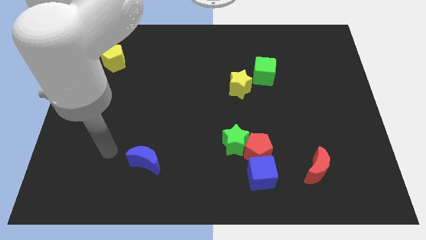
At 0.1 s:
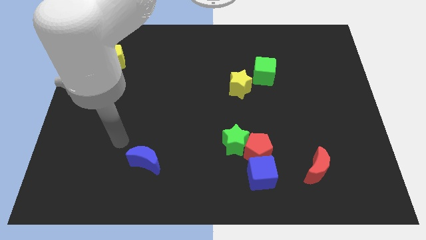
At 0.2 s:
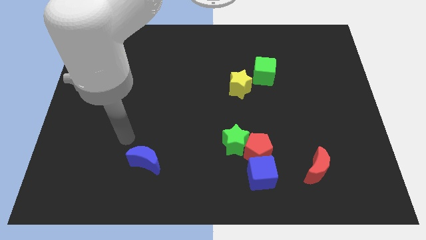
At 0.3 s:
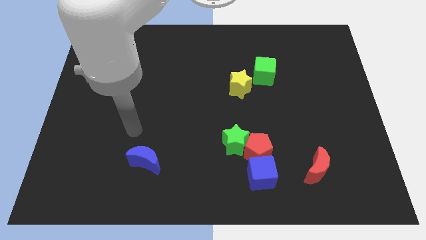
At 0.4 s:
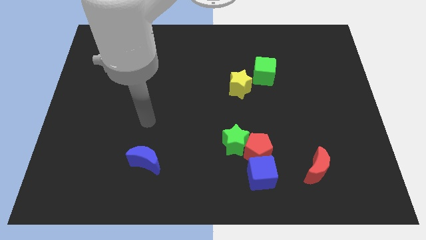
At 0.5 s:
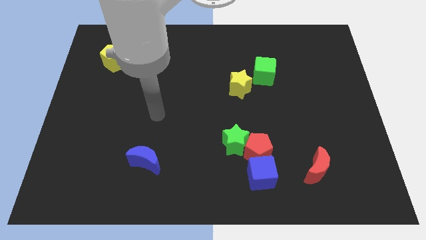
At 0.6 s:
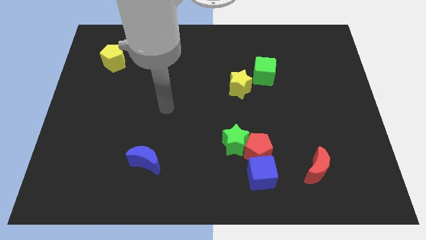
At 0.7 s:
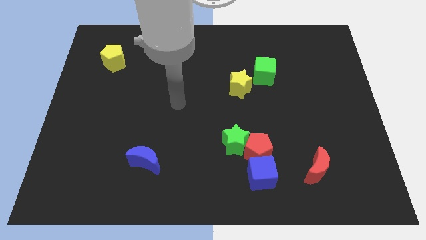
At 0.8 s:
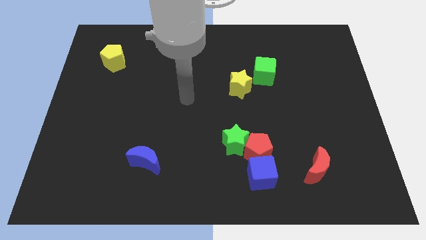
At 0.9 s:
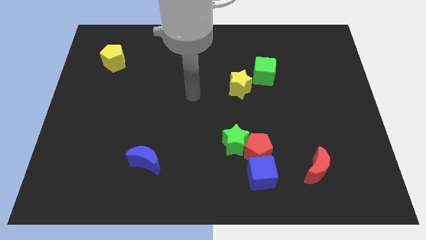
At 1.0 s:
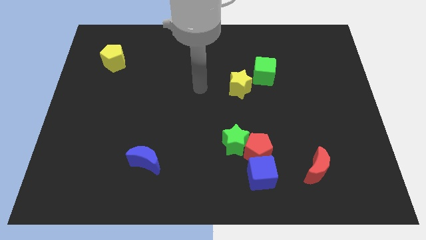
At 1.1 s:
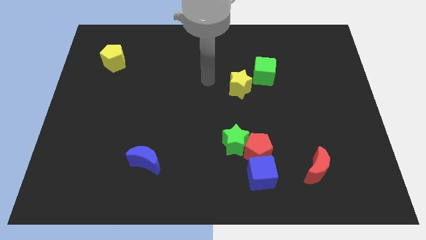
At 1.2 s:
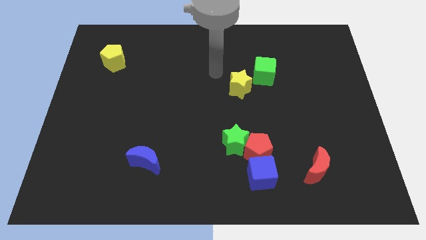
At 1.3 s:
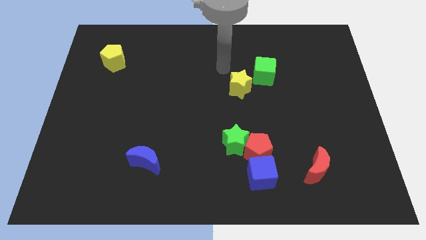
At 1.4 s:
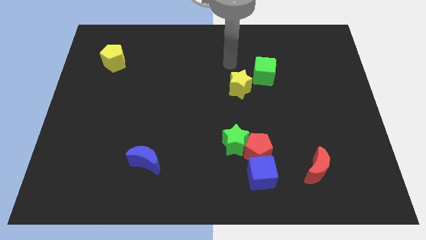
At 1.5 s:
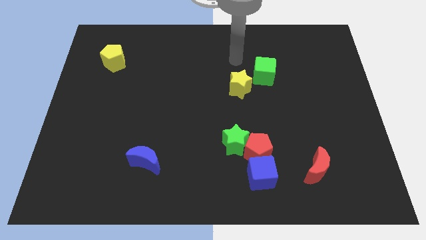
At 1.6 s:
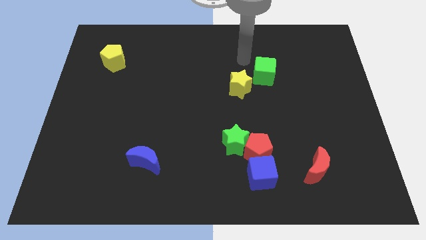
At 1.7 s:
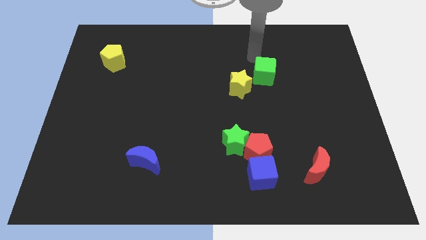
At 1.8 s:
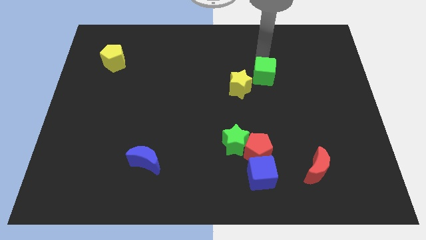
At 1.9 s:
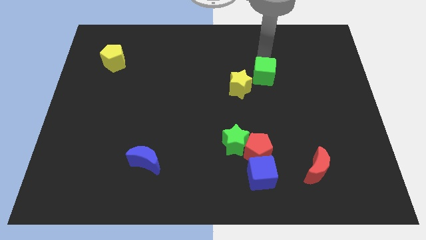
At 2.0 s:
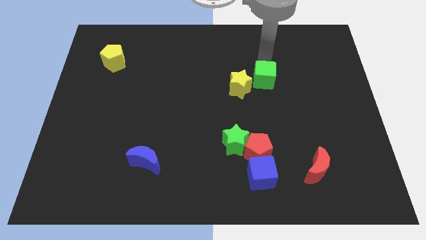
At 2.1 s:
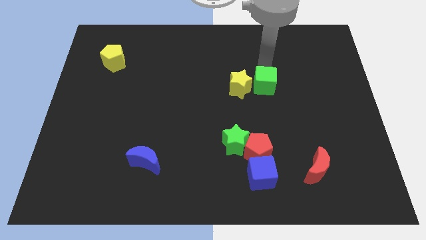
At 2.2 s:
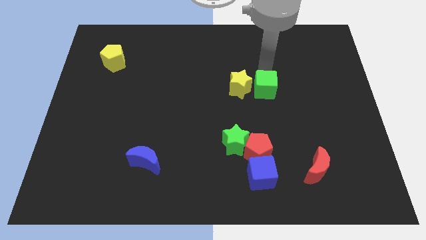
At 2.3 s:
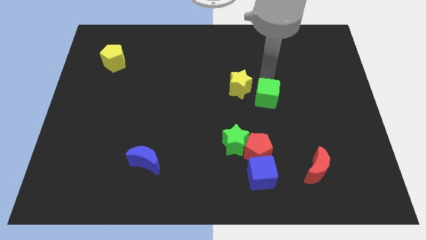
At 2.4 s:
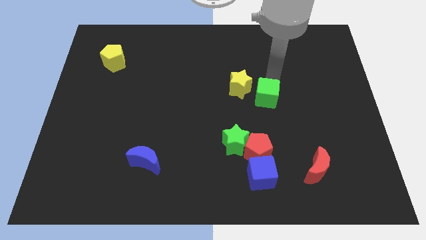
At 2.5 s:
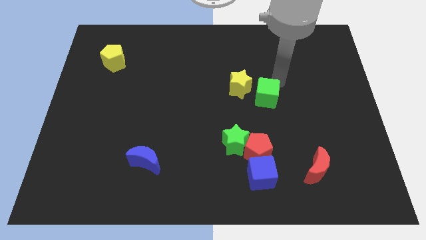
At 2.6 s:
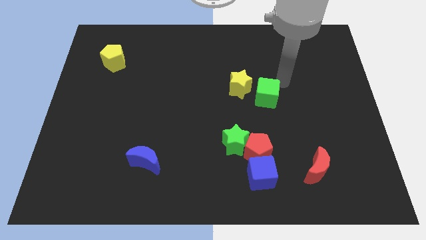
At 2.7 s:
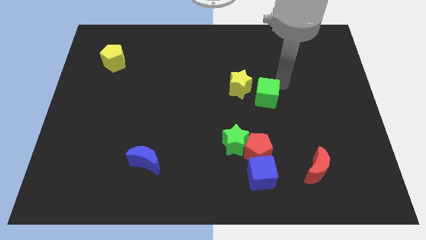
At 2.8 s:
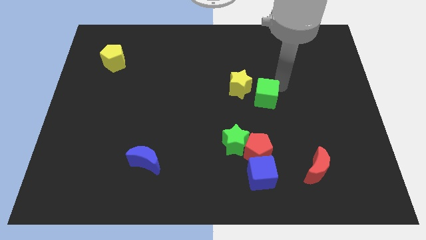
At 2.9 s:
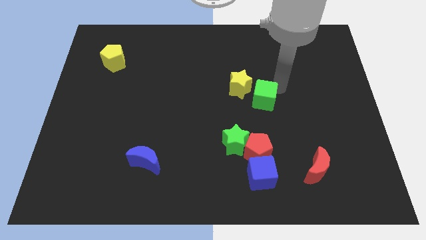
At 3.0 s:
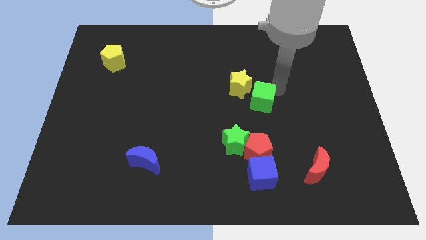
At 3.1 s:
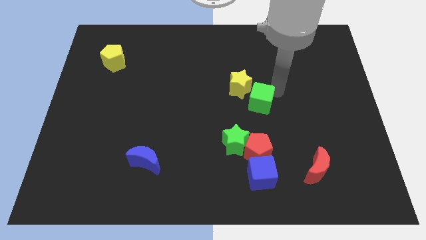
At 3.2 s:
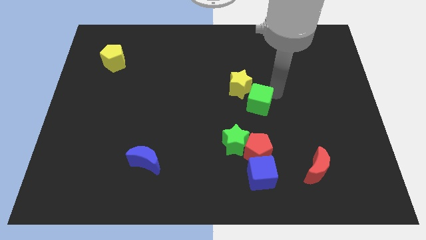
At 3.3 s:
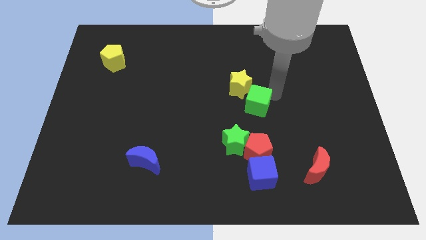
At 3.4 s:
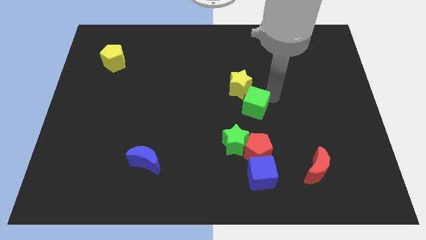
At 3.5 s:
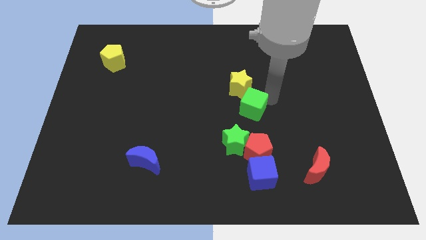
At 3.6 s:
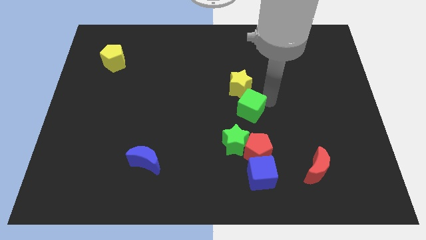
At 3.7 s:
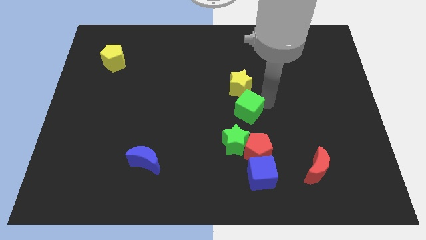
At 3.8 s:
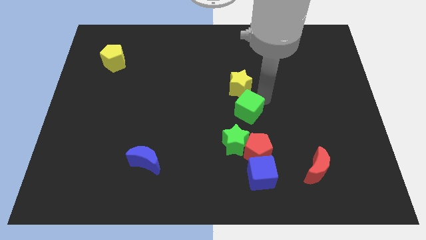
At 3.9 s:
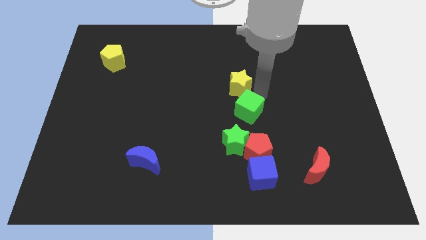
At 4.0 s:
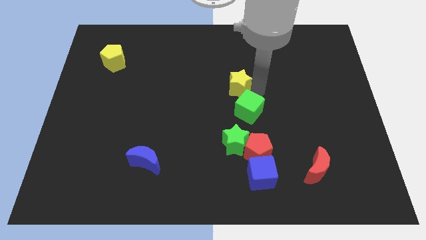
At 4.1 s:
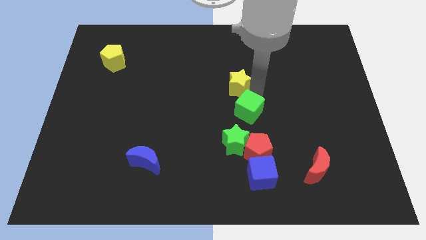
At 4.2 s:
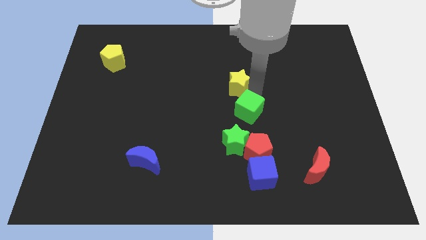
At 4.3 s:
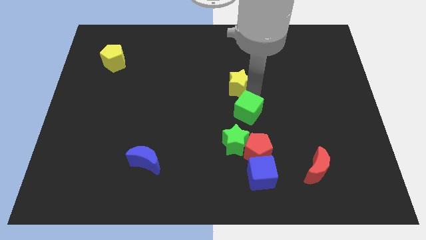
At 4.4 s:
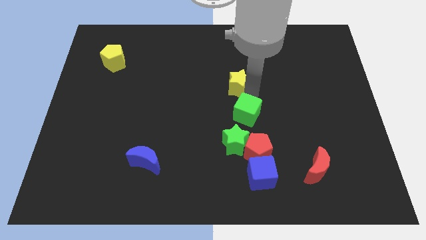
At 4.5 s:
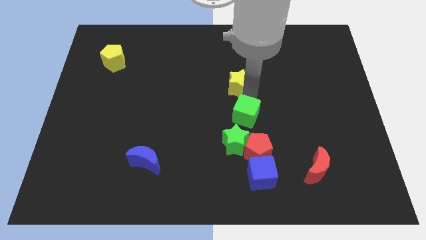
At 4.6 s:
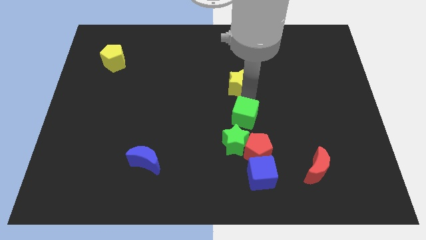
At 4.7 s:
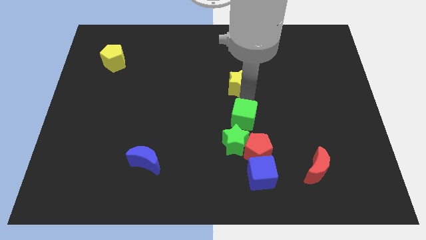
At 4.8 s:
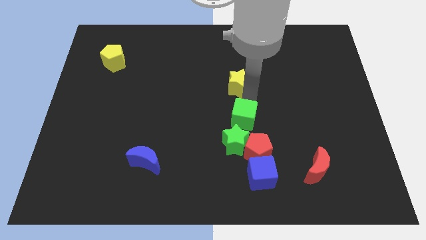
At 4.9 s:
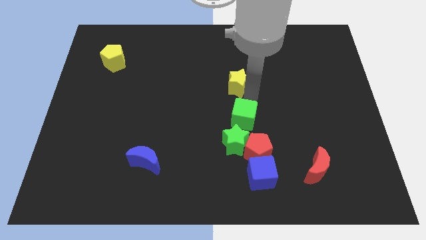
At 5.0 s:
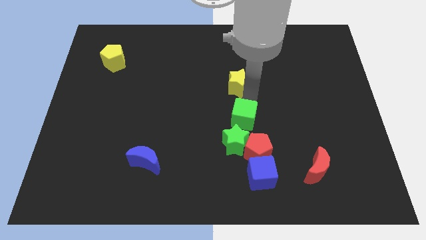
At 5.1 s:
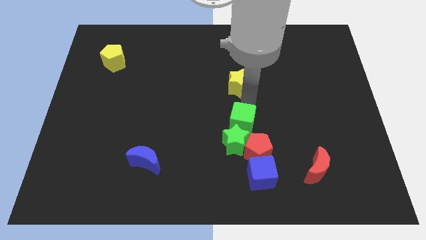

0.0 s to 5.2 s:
slide the green cube to the green star

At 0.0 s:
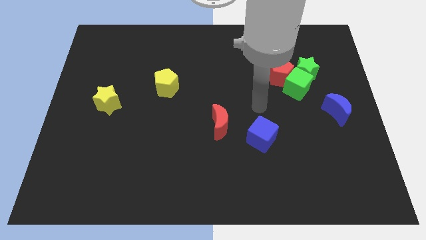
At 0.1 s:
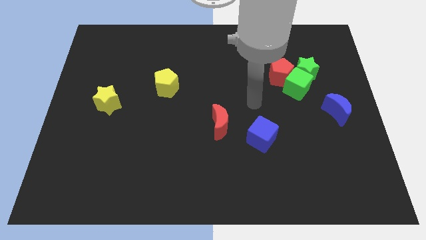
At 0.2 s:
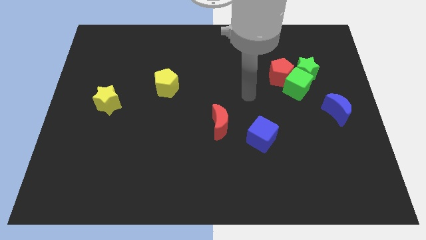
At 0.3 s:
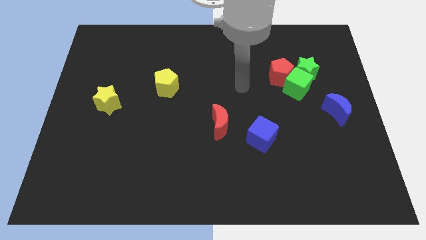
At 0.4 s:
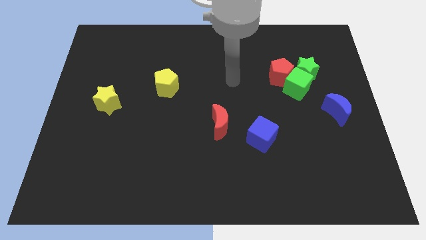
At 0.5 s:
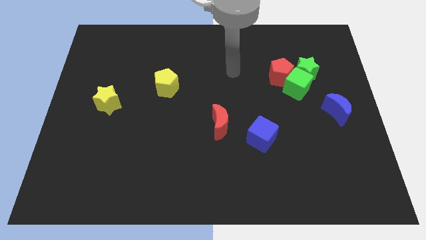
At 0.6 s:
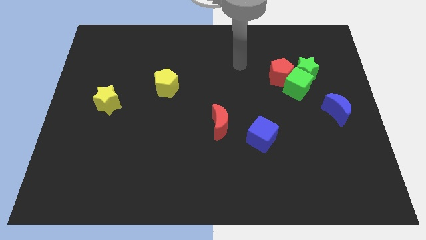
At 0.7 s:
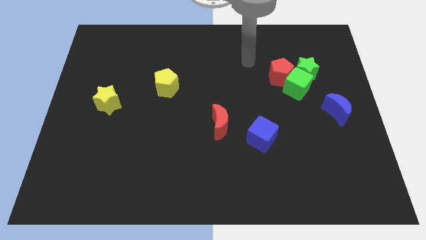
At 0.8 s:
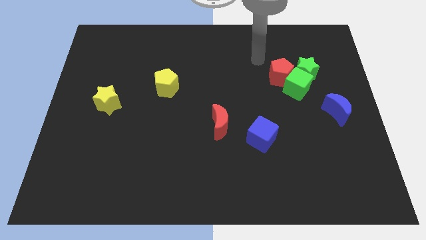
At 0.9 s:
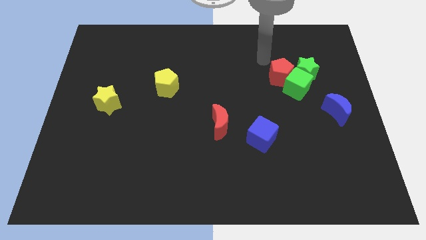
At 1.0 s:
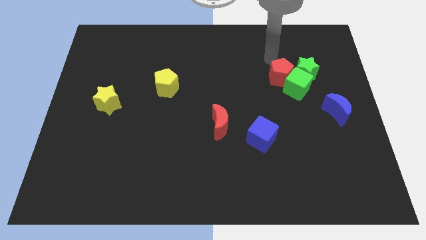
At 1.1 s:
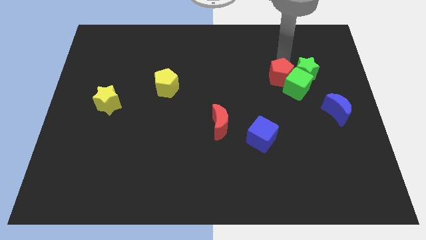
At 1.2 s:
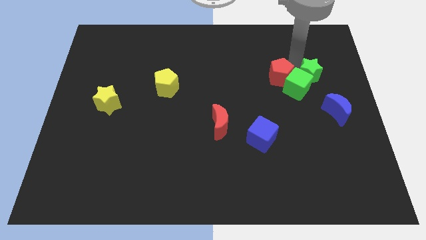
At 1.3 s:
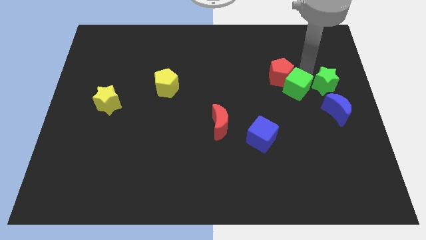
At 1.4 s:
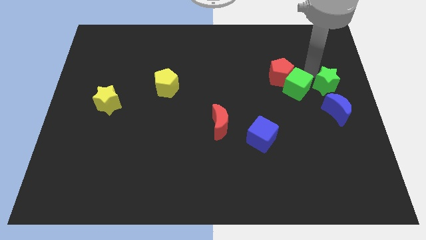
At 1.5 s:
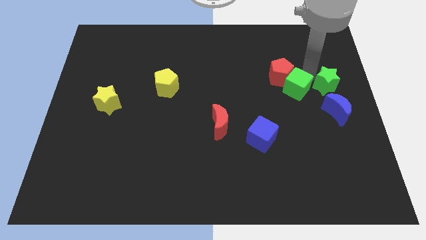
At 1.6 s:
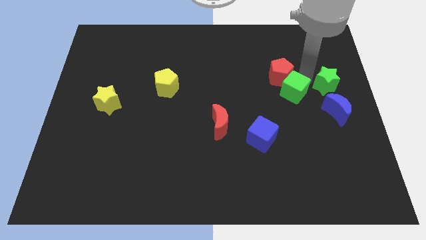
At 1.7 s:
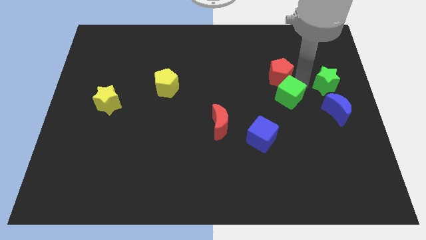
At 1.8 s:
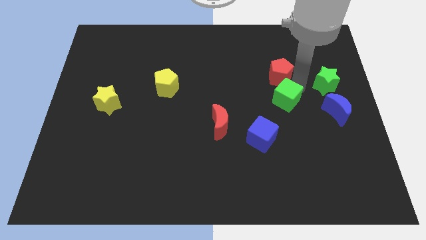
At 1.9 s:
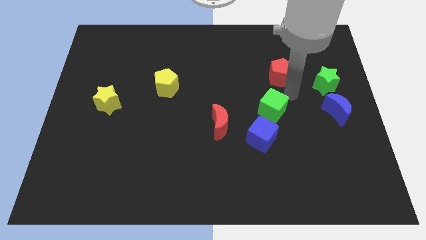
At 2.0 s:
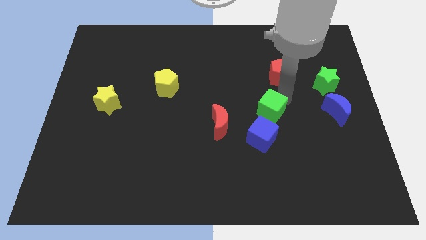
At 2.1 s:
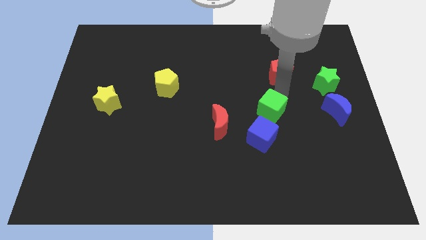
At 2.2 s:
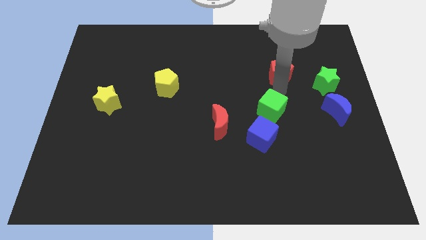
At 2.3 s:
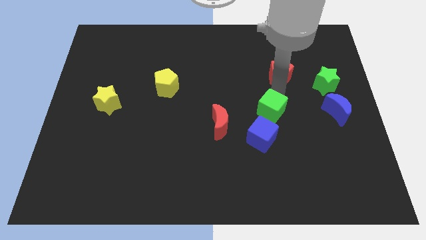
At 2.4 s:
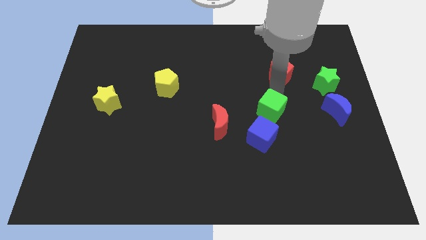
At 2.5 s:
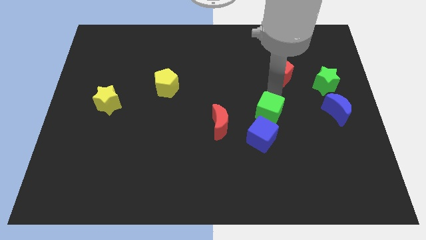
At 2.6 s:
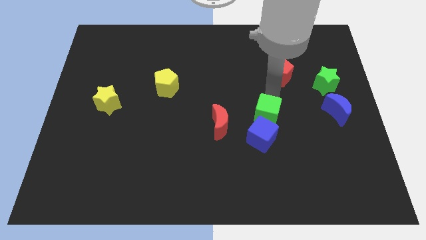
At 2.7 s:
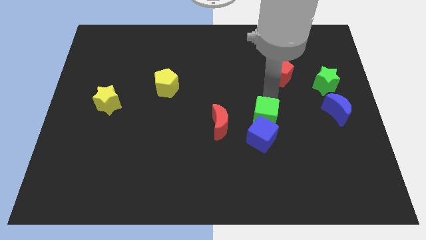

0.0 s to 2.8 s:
push the green cube close to the blue cube
